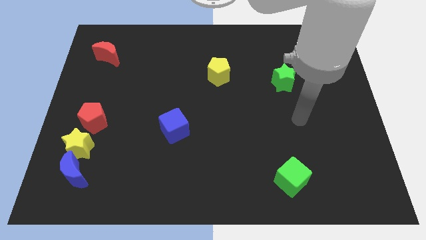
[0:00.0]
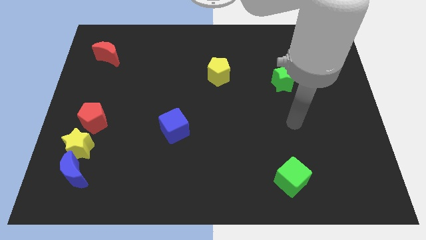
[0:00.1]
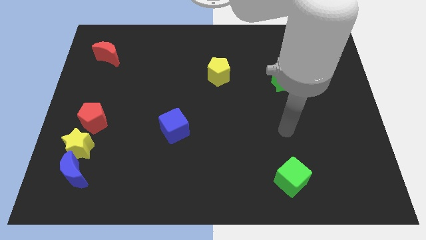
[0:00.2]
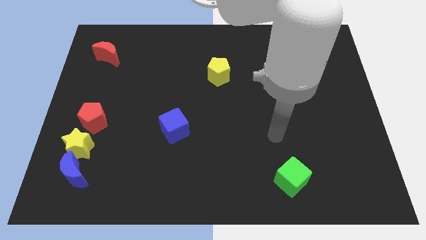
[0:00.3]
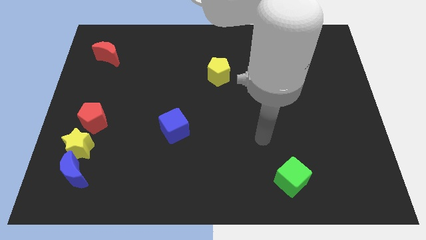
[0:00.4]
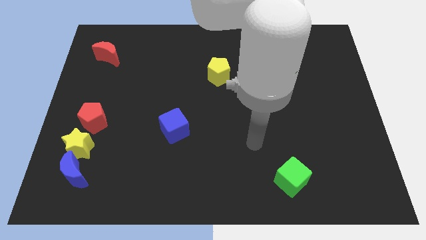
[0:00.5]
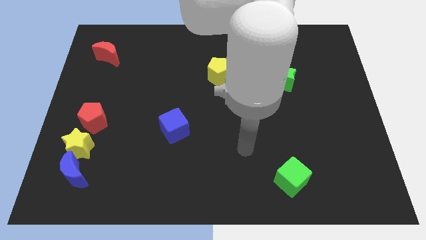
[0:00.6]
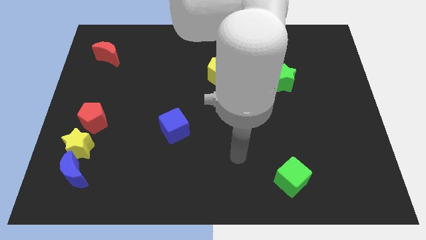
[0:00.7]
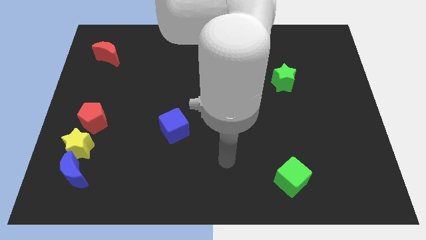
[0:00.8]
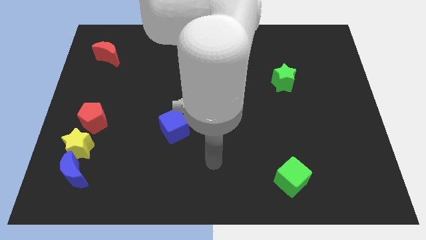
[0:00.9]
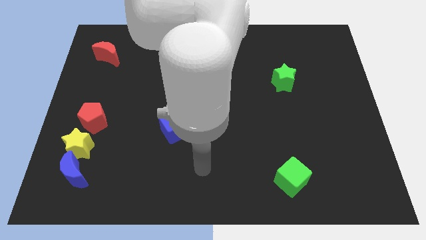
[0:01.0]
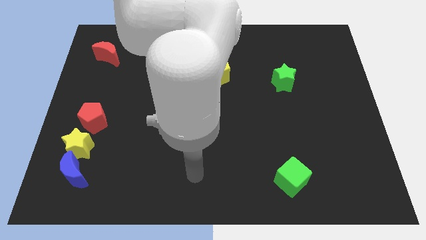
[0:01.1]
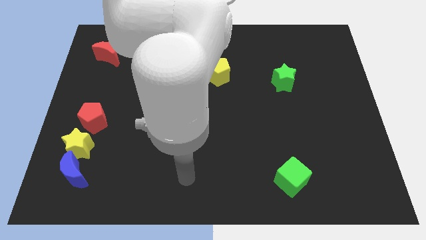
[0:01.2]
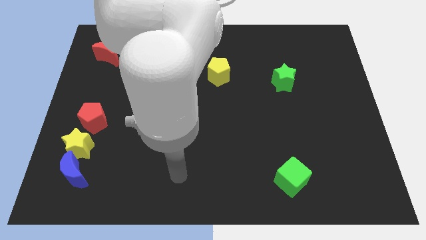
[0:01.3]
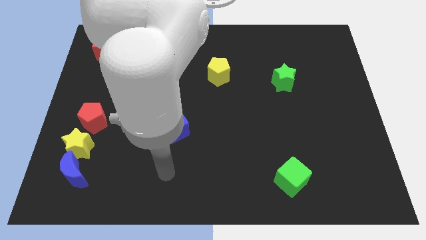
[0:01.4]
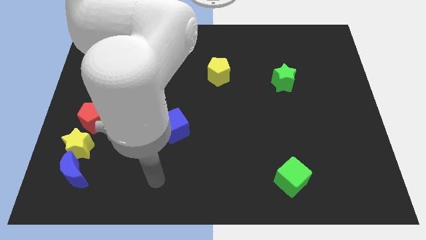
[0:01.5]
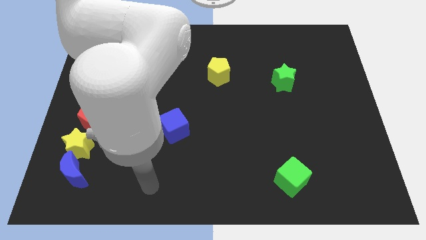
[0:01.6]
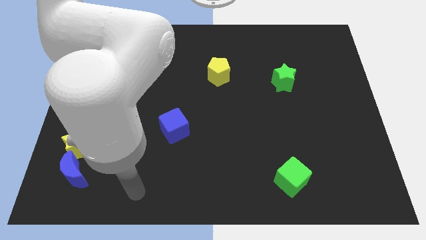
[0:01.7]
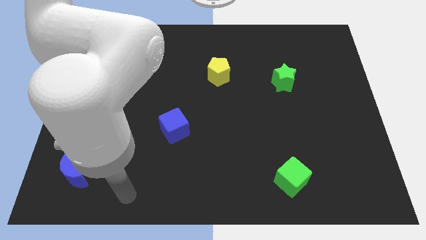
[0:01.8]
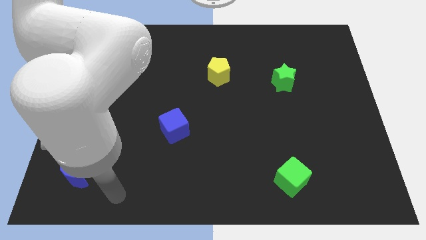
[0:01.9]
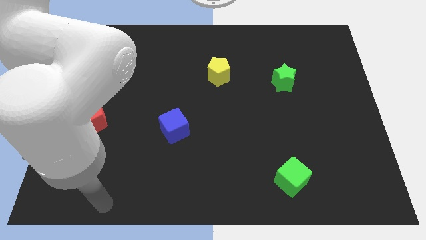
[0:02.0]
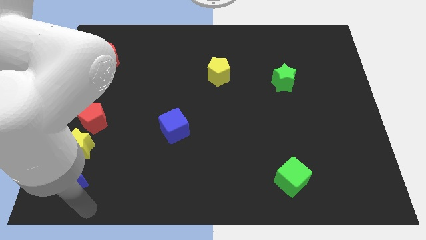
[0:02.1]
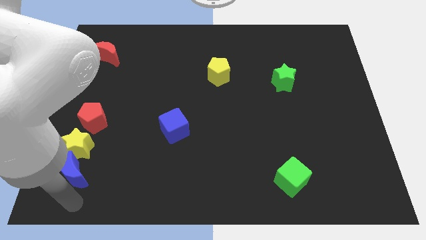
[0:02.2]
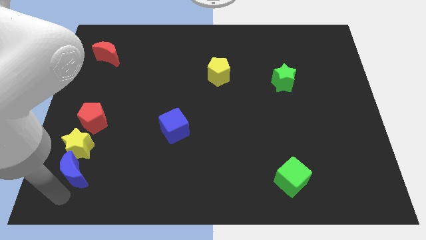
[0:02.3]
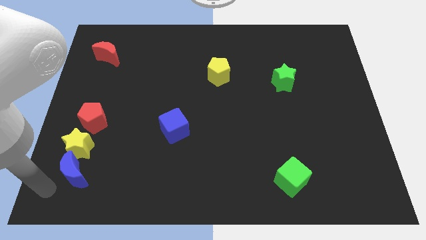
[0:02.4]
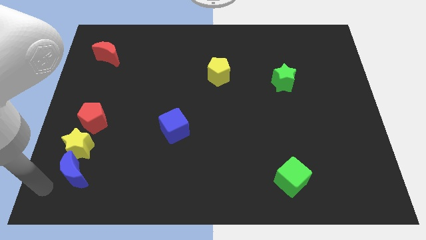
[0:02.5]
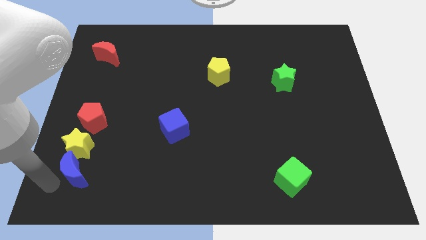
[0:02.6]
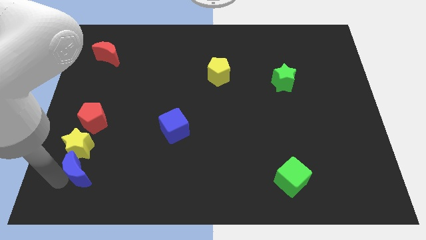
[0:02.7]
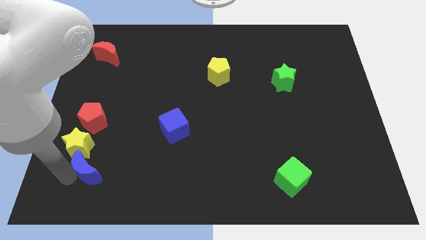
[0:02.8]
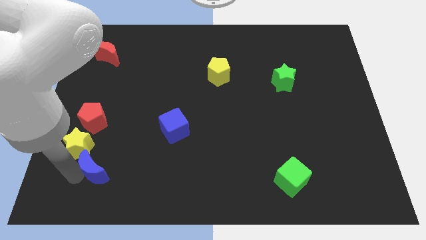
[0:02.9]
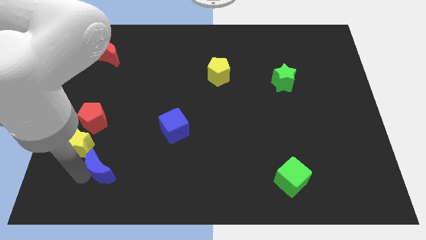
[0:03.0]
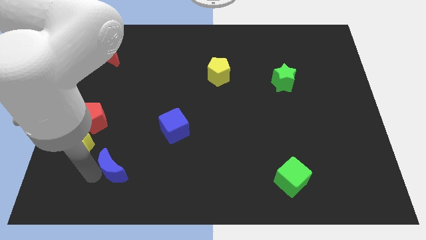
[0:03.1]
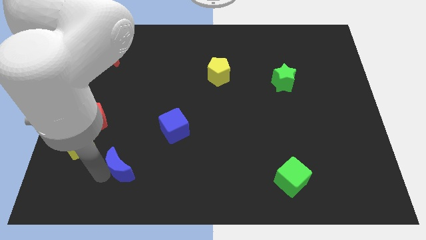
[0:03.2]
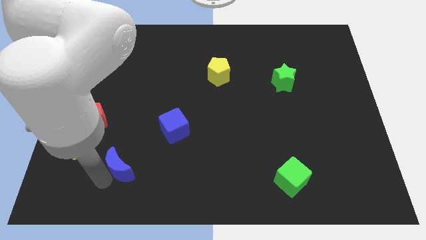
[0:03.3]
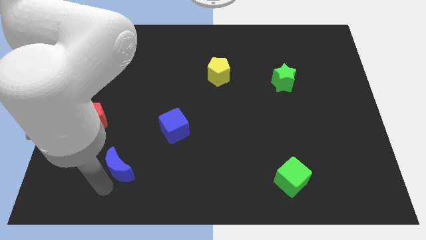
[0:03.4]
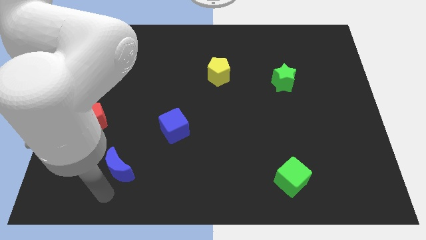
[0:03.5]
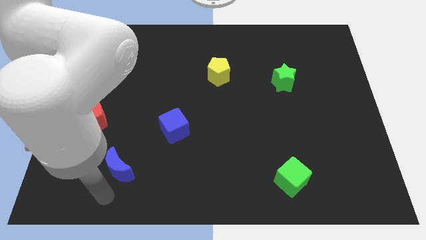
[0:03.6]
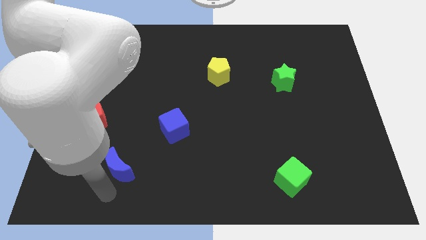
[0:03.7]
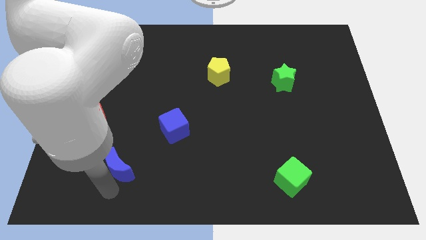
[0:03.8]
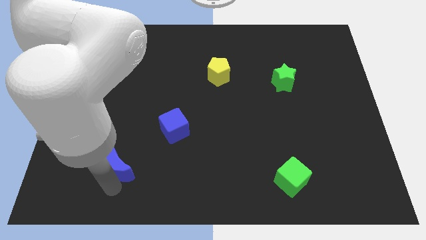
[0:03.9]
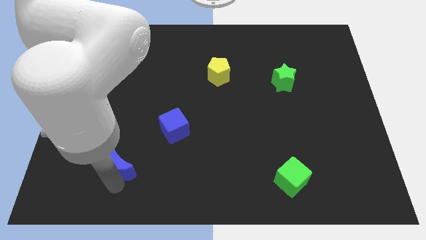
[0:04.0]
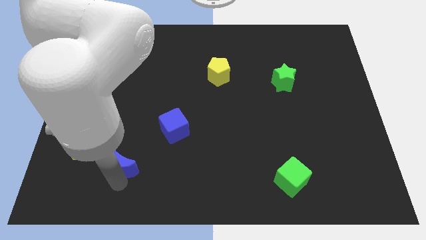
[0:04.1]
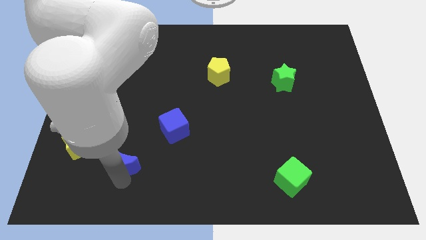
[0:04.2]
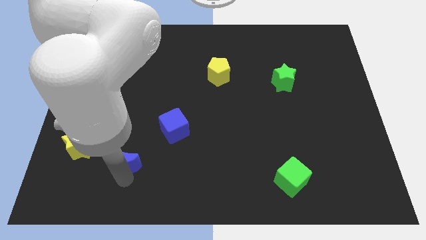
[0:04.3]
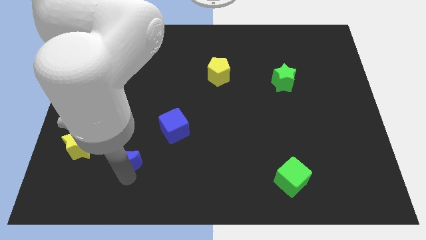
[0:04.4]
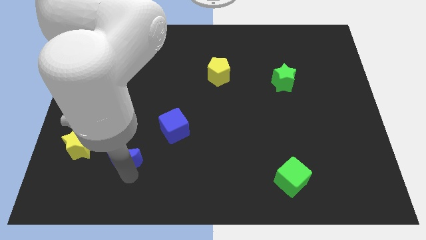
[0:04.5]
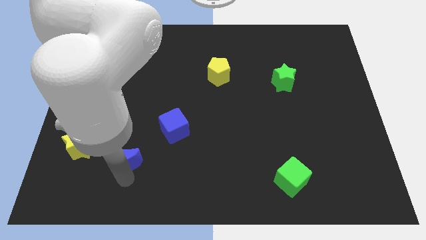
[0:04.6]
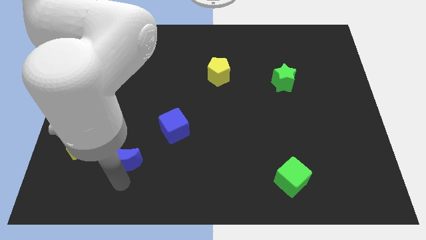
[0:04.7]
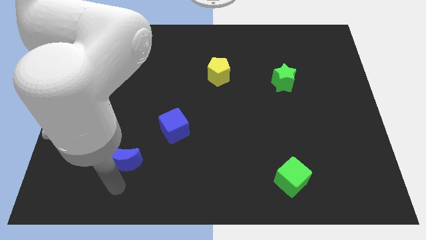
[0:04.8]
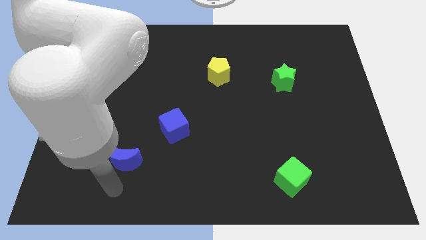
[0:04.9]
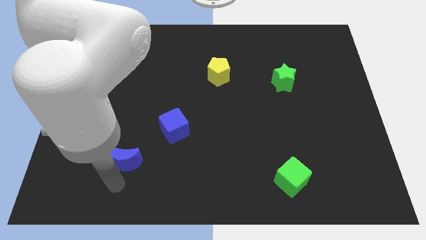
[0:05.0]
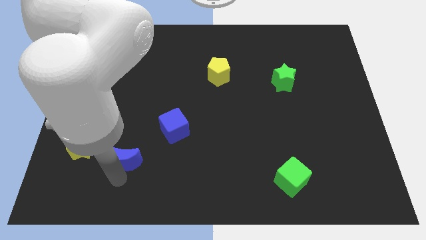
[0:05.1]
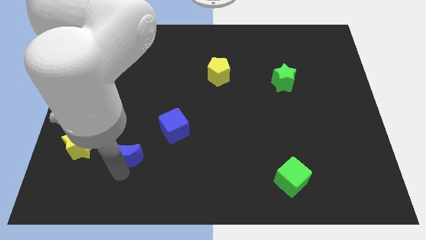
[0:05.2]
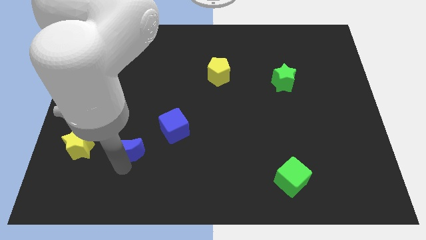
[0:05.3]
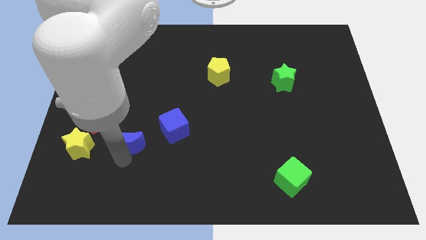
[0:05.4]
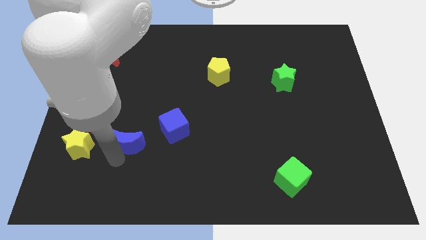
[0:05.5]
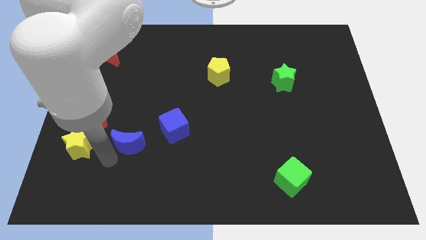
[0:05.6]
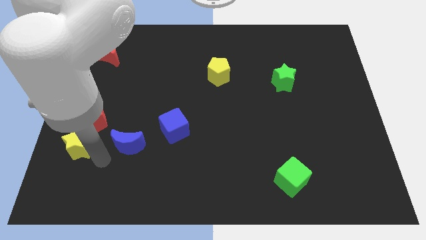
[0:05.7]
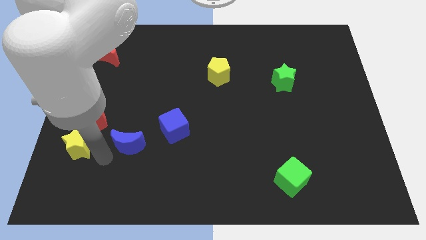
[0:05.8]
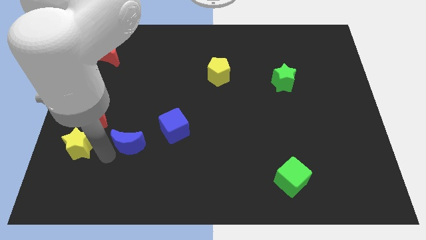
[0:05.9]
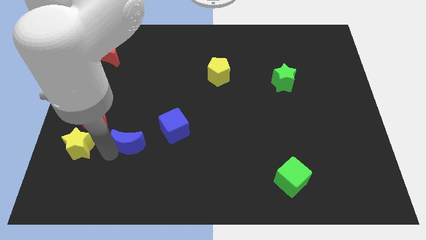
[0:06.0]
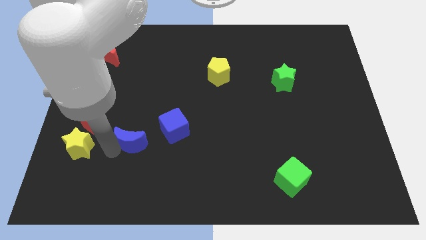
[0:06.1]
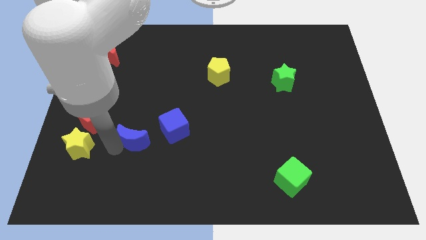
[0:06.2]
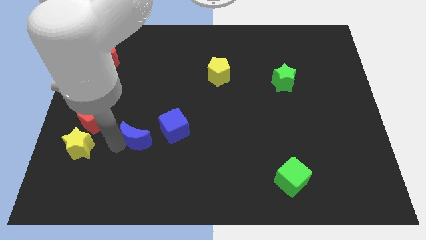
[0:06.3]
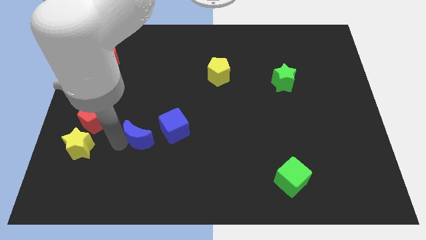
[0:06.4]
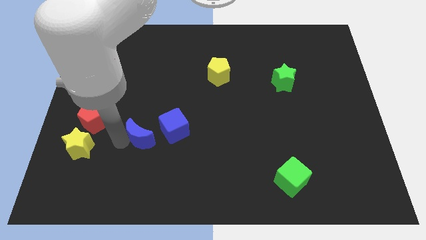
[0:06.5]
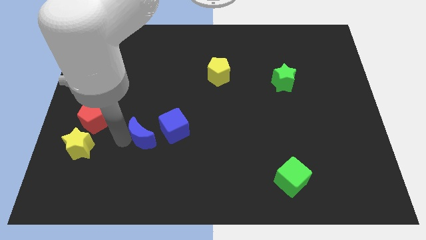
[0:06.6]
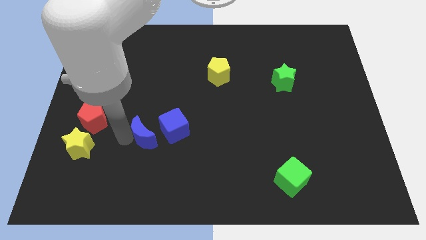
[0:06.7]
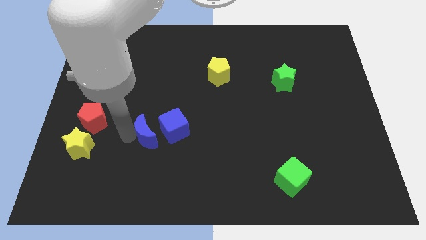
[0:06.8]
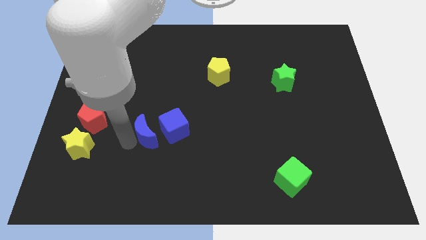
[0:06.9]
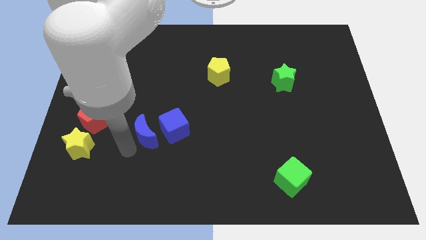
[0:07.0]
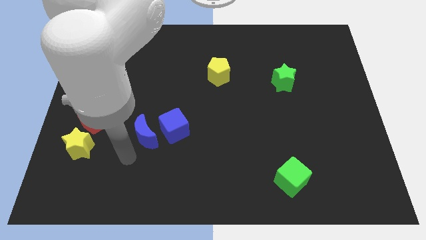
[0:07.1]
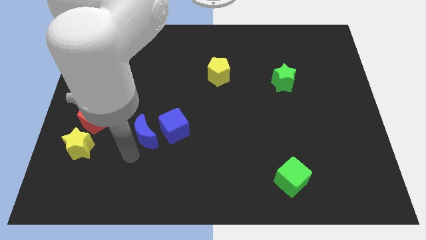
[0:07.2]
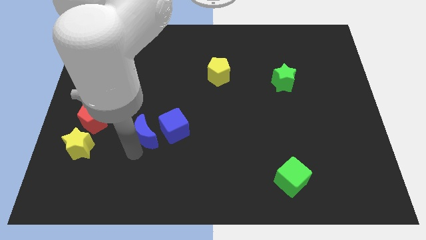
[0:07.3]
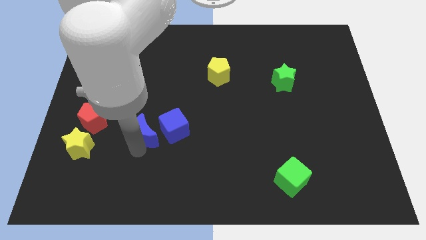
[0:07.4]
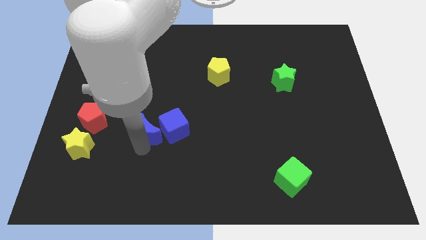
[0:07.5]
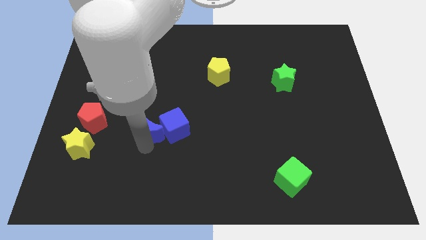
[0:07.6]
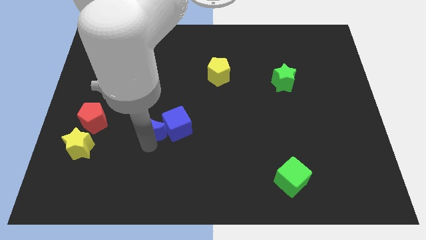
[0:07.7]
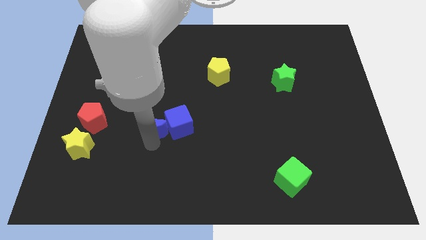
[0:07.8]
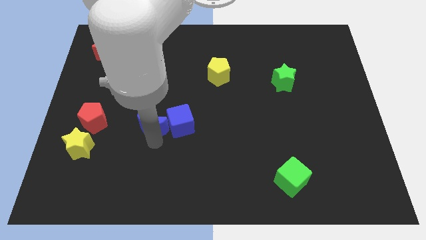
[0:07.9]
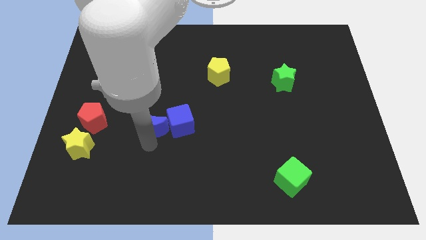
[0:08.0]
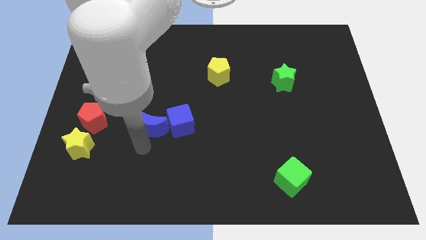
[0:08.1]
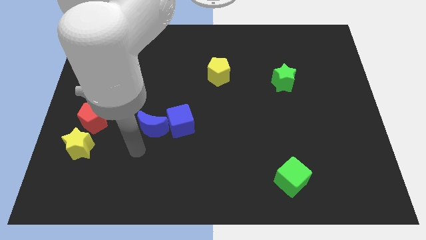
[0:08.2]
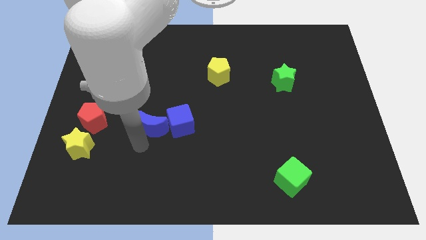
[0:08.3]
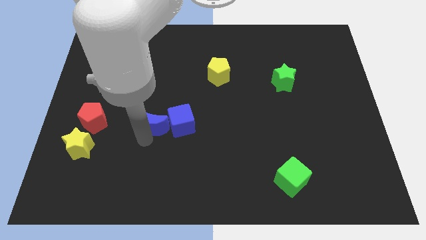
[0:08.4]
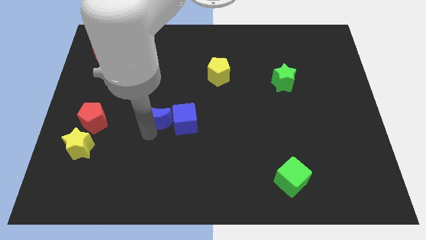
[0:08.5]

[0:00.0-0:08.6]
push the blue moon up and to the right
